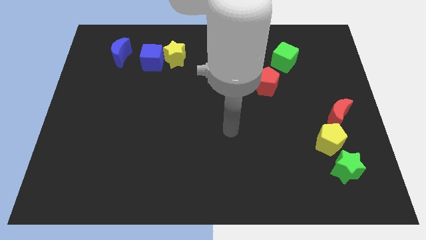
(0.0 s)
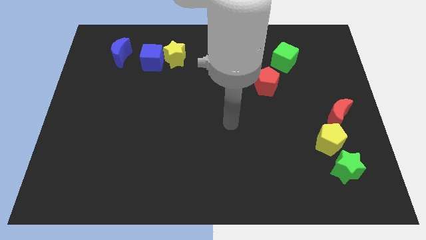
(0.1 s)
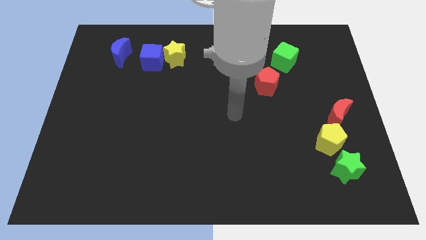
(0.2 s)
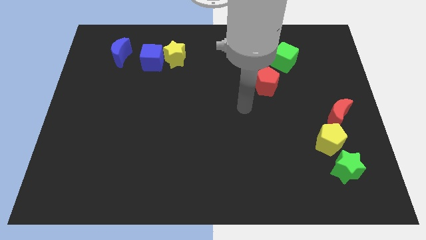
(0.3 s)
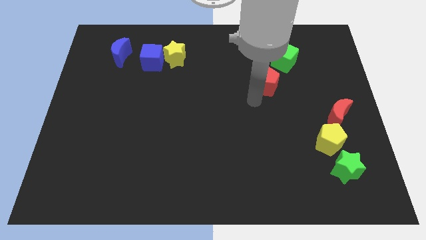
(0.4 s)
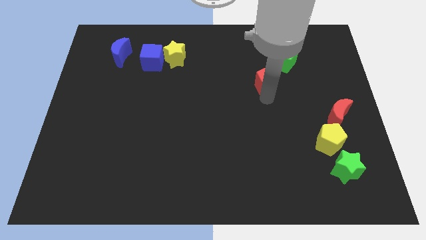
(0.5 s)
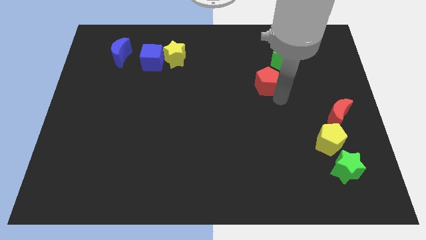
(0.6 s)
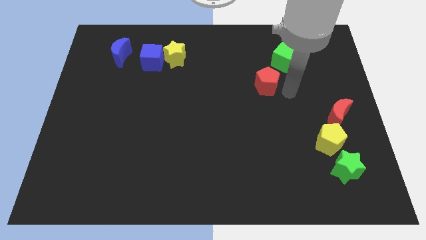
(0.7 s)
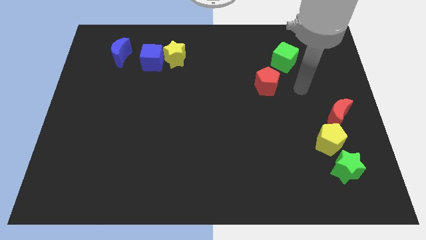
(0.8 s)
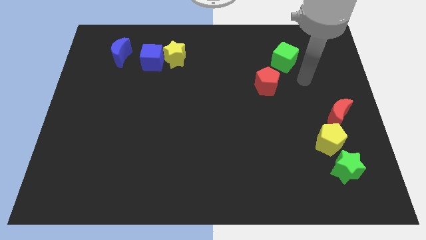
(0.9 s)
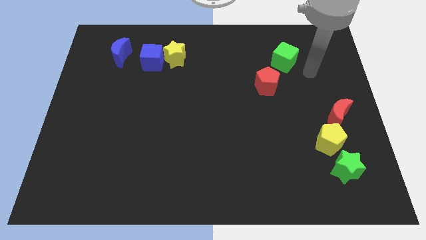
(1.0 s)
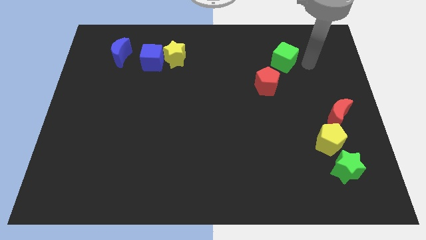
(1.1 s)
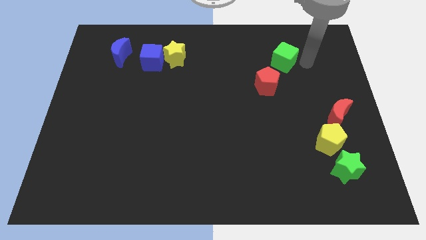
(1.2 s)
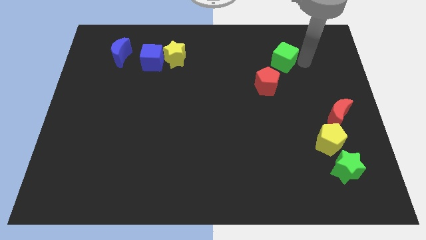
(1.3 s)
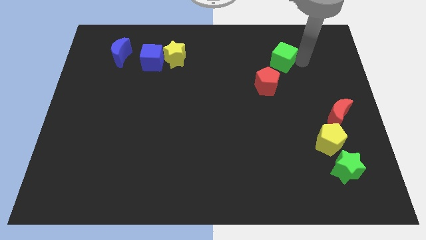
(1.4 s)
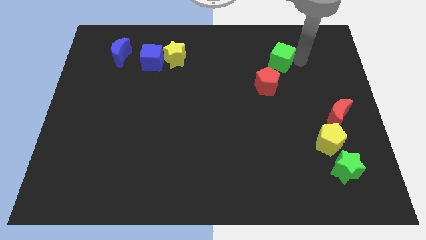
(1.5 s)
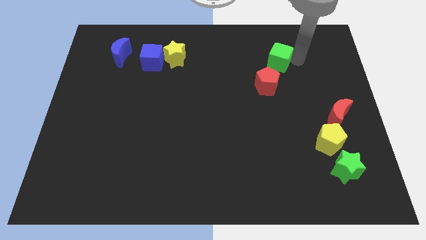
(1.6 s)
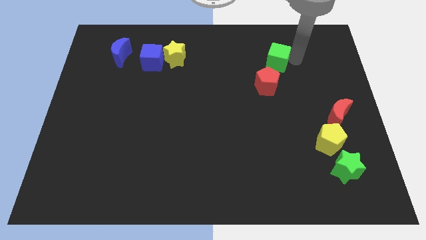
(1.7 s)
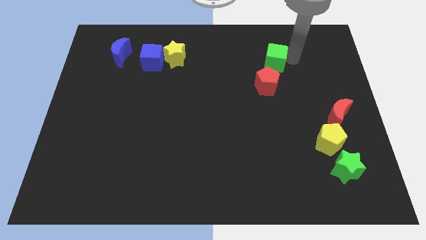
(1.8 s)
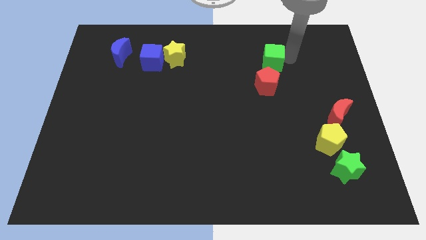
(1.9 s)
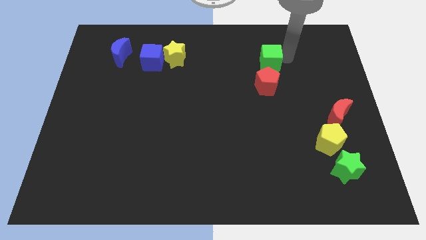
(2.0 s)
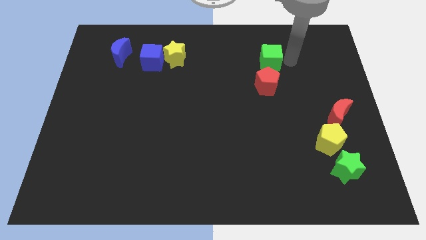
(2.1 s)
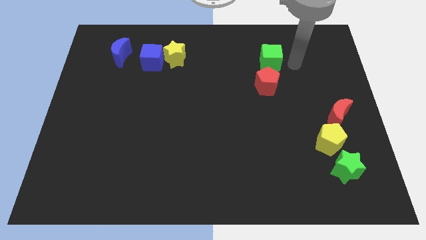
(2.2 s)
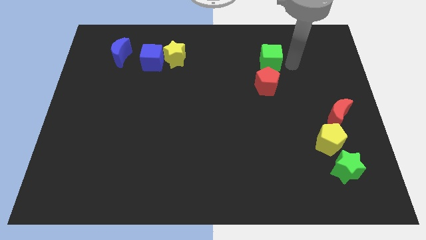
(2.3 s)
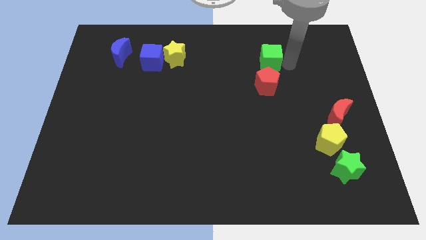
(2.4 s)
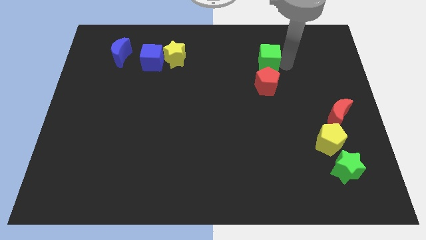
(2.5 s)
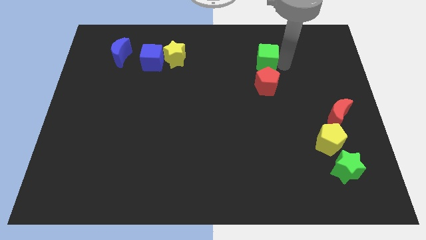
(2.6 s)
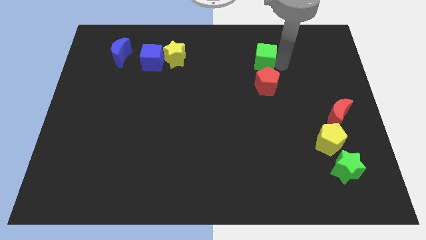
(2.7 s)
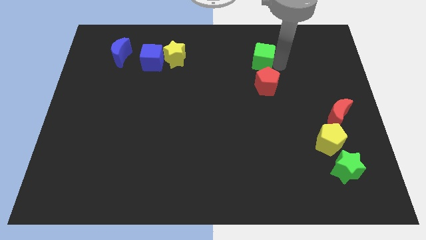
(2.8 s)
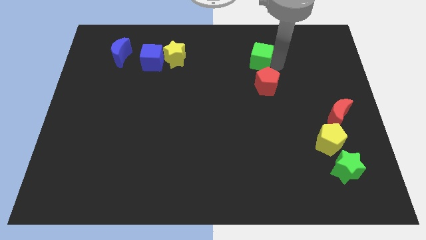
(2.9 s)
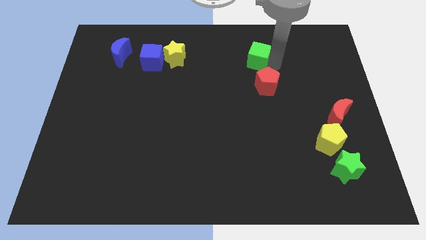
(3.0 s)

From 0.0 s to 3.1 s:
push the green cube to the left a little bit

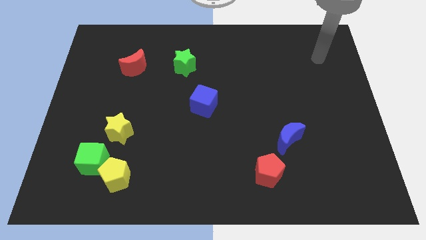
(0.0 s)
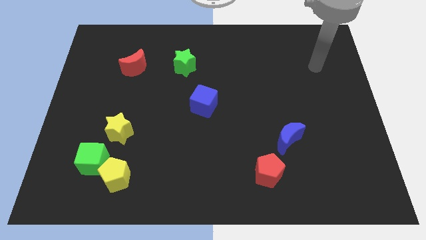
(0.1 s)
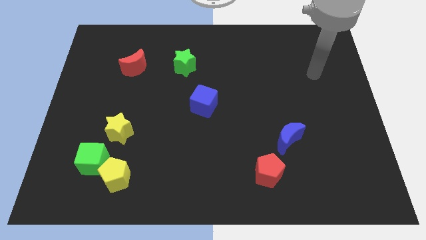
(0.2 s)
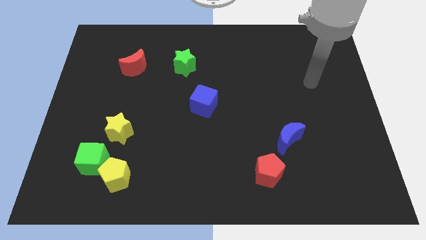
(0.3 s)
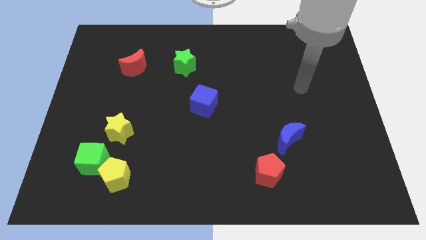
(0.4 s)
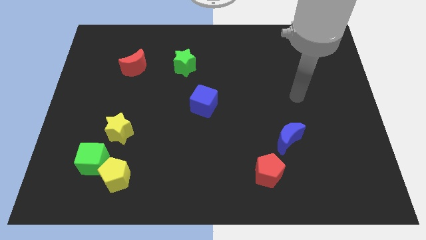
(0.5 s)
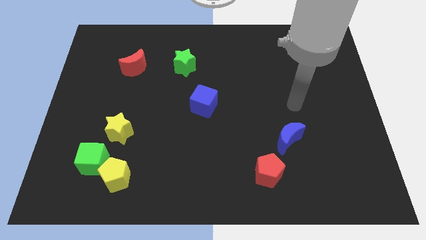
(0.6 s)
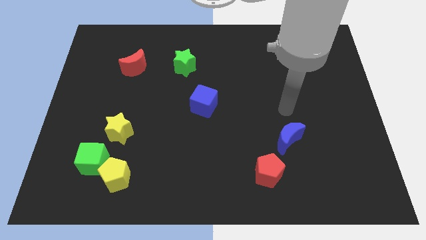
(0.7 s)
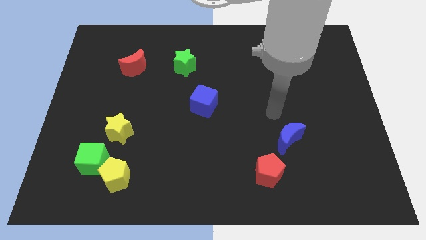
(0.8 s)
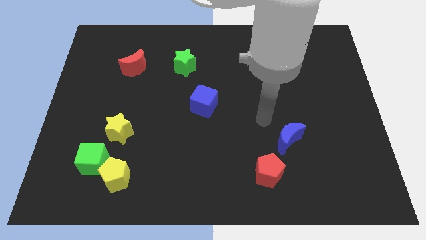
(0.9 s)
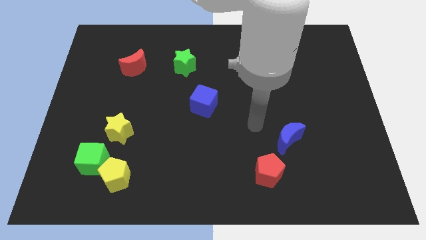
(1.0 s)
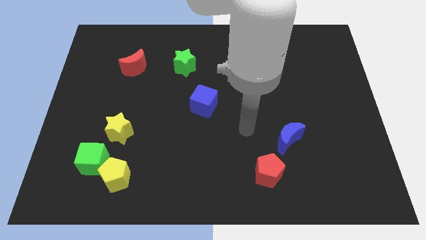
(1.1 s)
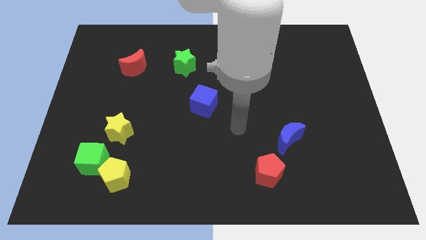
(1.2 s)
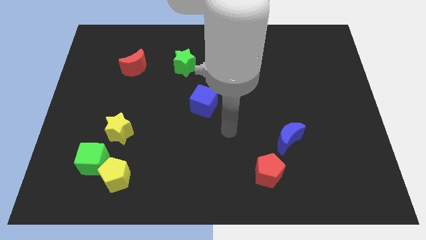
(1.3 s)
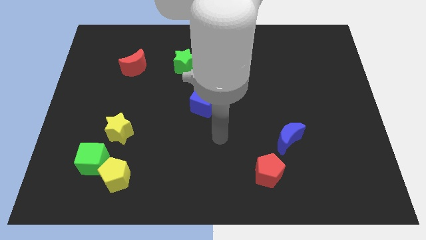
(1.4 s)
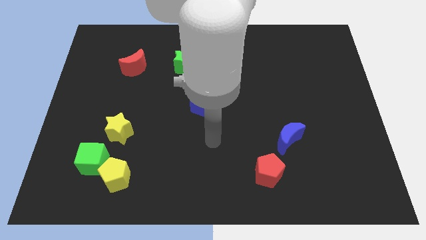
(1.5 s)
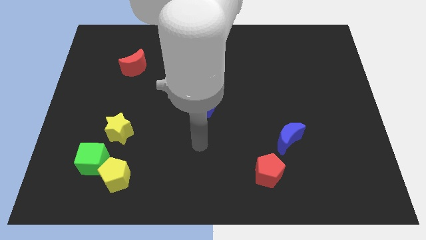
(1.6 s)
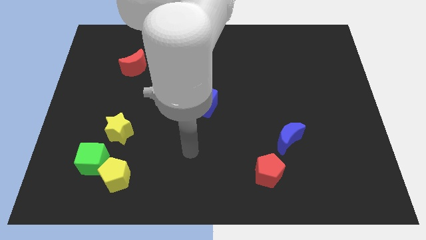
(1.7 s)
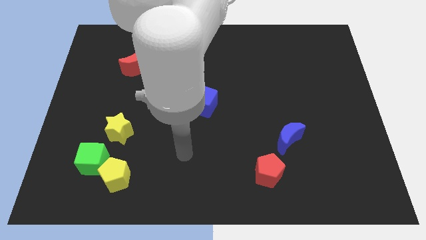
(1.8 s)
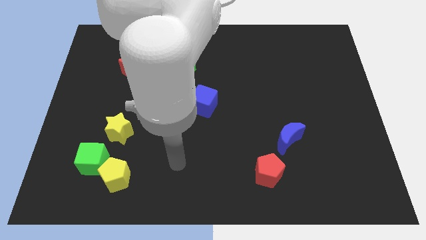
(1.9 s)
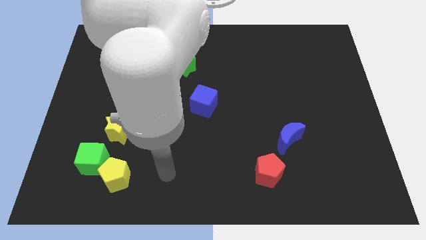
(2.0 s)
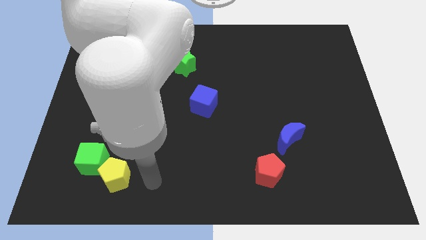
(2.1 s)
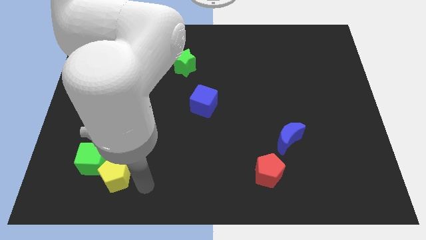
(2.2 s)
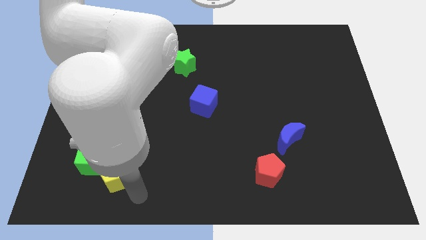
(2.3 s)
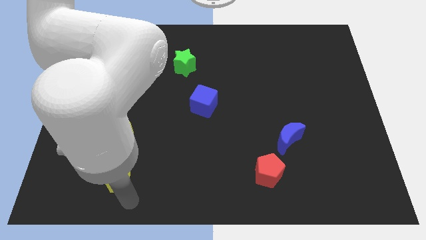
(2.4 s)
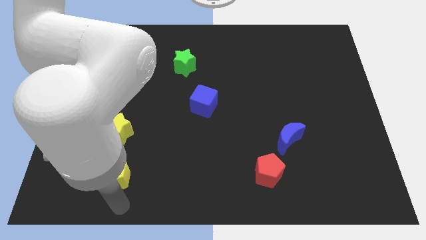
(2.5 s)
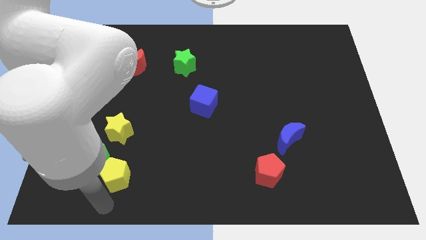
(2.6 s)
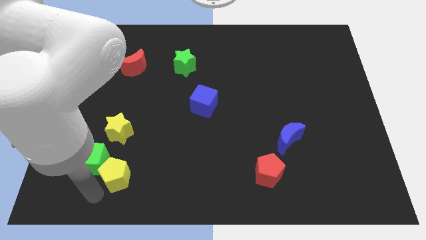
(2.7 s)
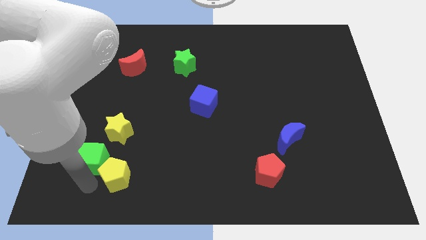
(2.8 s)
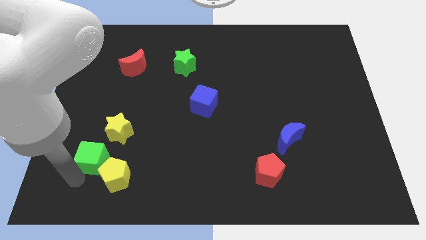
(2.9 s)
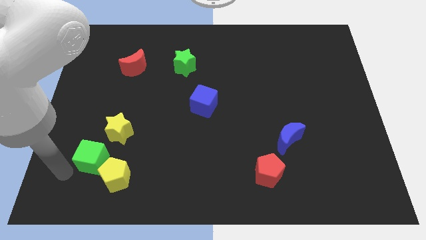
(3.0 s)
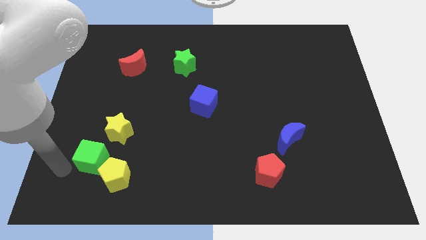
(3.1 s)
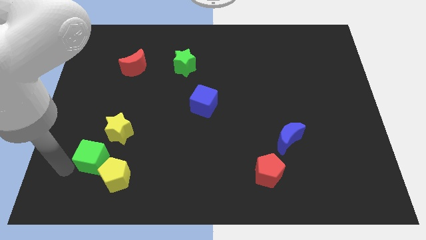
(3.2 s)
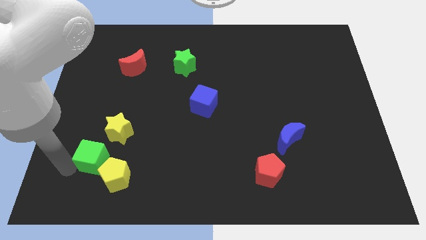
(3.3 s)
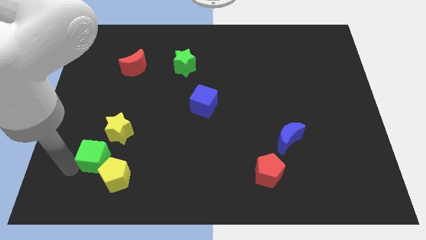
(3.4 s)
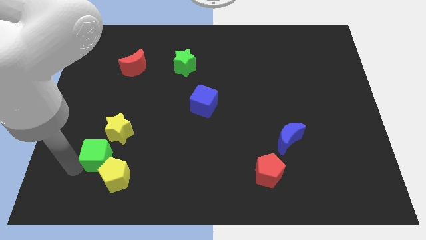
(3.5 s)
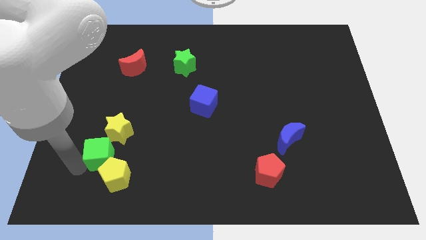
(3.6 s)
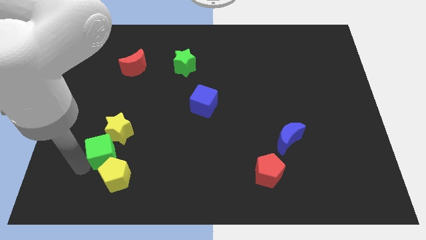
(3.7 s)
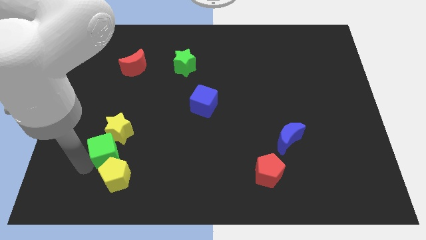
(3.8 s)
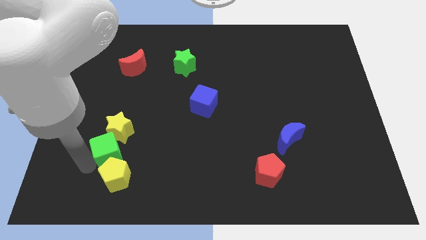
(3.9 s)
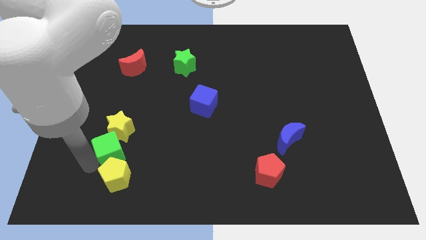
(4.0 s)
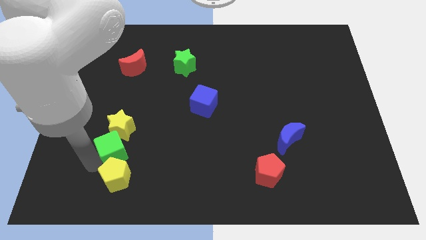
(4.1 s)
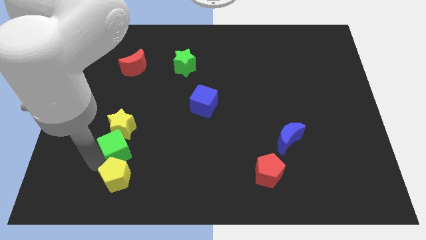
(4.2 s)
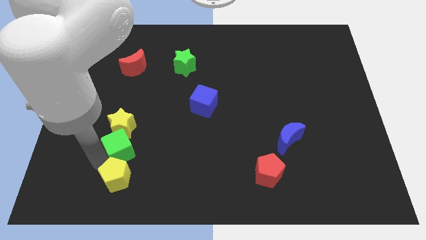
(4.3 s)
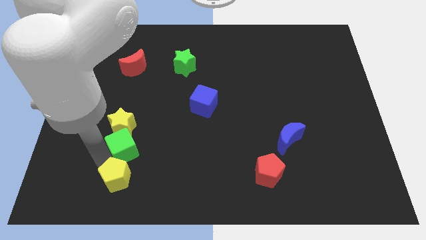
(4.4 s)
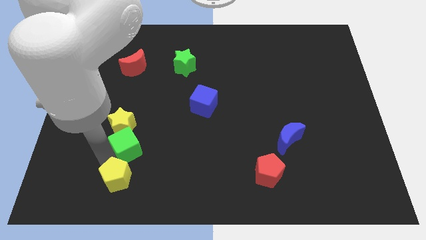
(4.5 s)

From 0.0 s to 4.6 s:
slightly slide the green cube diagonally up and right
